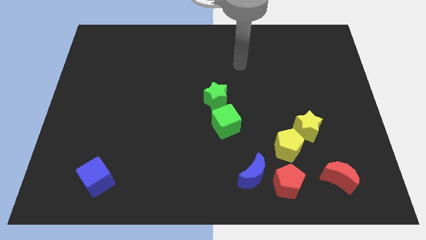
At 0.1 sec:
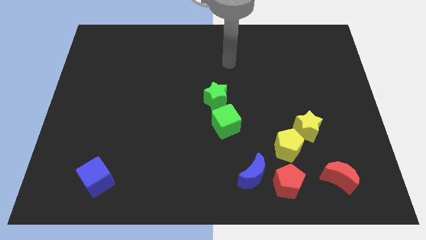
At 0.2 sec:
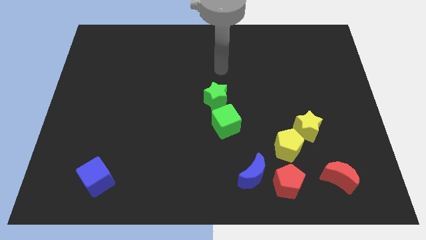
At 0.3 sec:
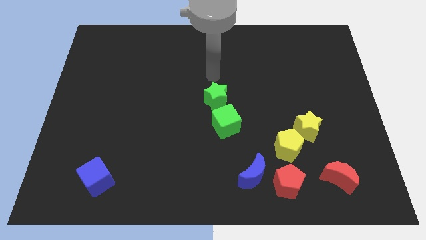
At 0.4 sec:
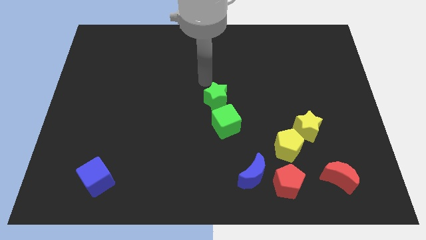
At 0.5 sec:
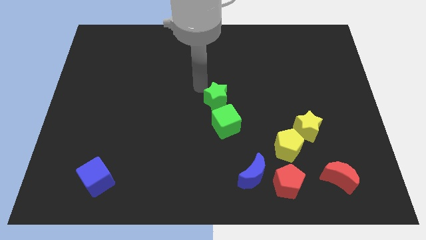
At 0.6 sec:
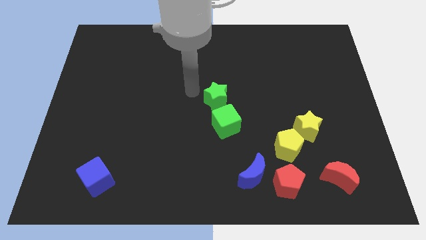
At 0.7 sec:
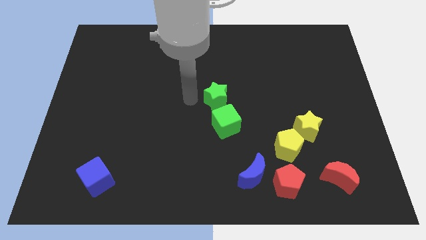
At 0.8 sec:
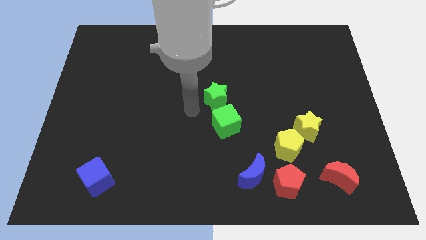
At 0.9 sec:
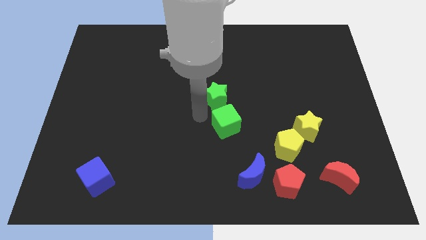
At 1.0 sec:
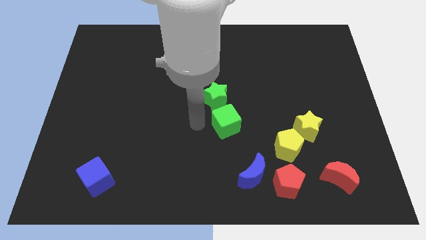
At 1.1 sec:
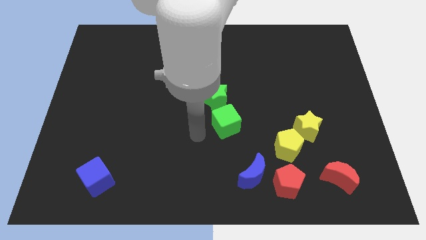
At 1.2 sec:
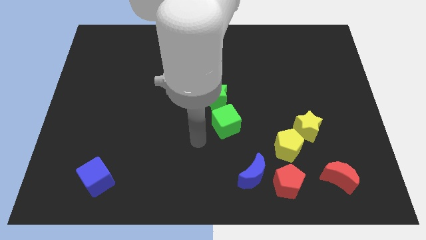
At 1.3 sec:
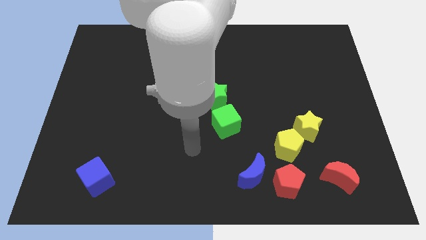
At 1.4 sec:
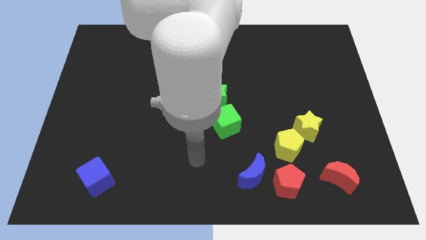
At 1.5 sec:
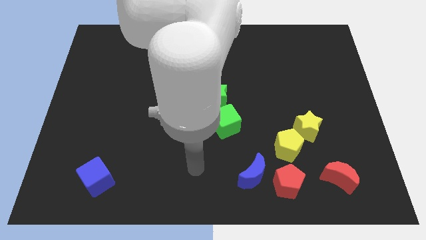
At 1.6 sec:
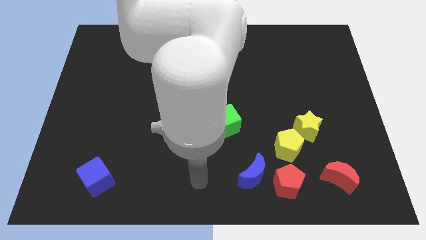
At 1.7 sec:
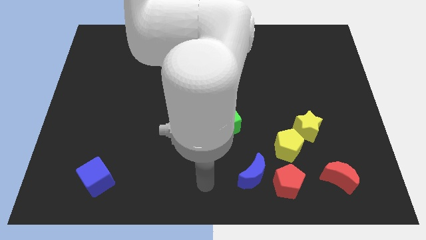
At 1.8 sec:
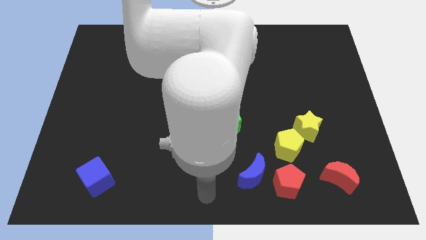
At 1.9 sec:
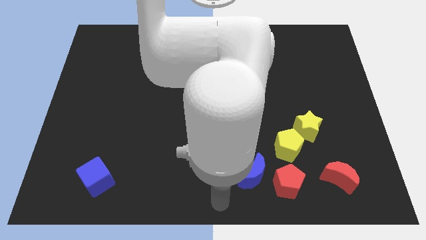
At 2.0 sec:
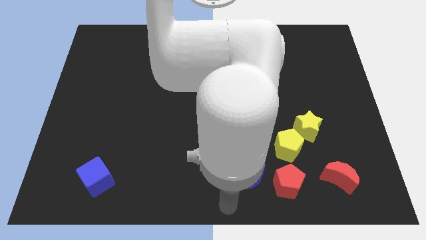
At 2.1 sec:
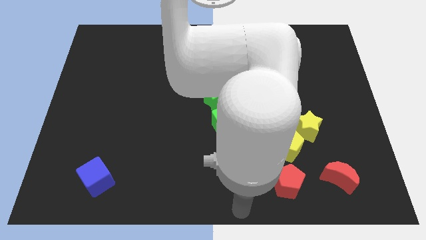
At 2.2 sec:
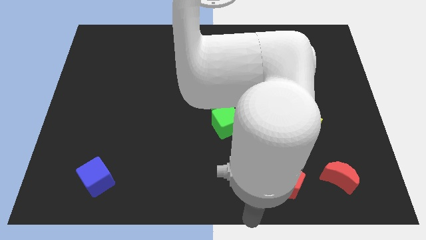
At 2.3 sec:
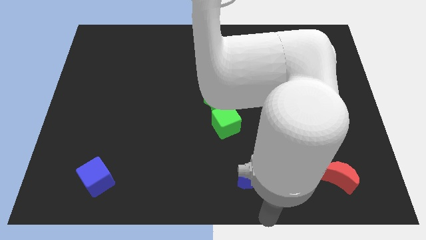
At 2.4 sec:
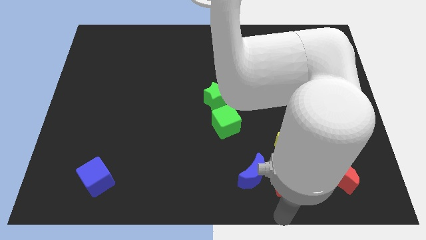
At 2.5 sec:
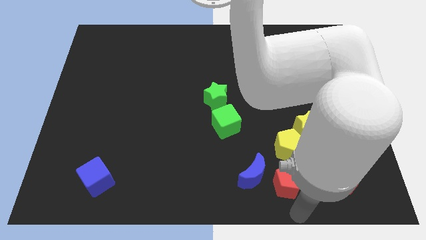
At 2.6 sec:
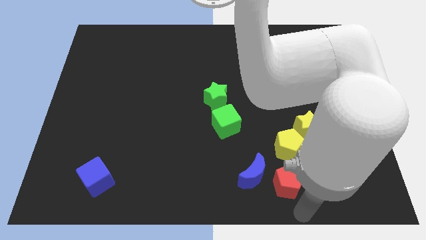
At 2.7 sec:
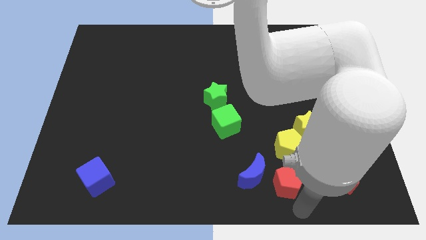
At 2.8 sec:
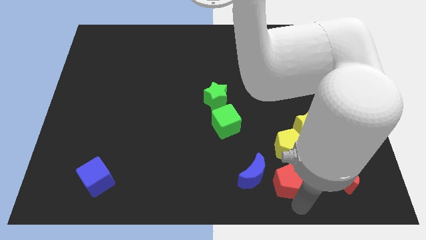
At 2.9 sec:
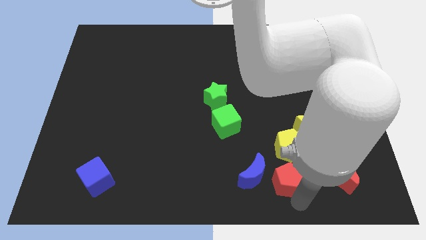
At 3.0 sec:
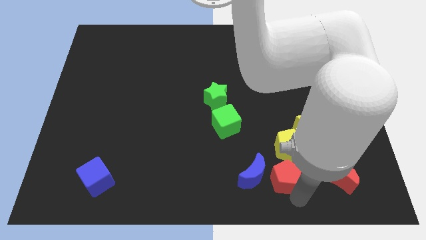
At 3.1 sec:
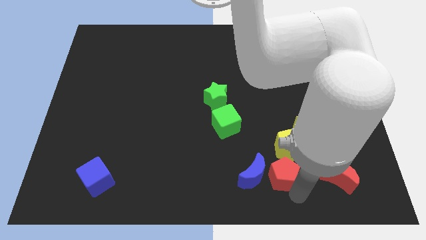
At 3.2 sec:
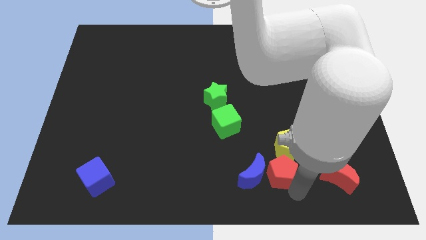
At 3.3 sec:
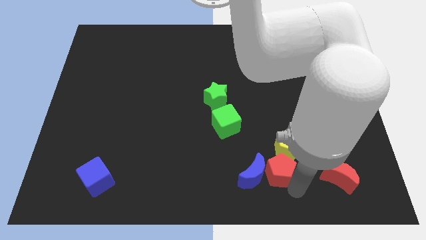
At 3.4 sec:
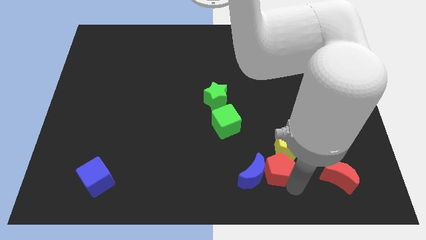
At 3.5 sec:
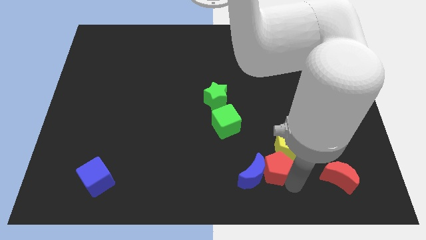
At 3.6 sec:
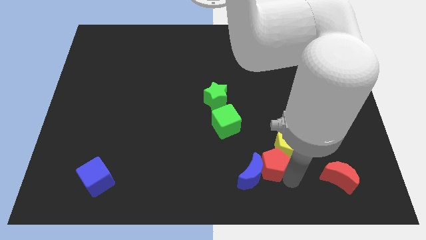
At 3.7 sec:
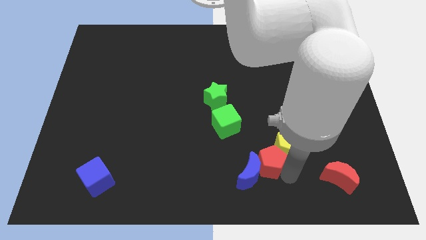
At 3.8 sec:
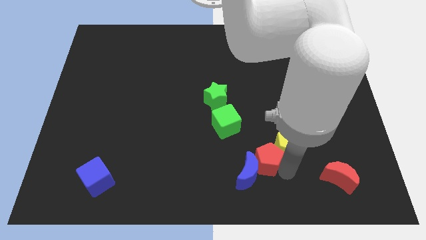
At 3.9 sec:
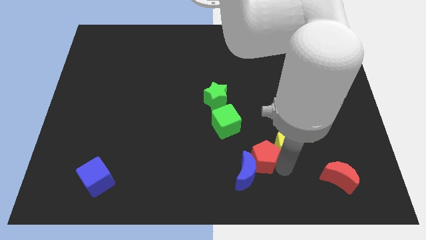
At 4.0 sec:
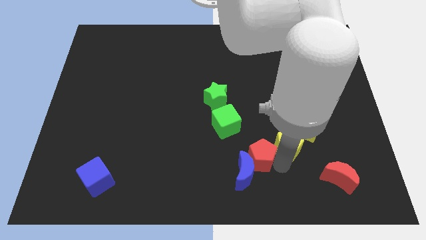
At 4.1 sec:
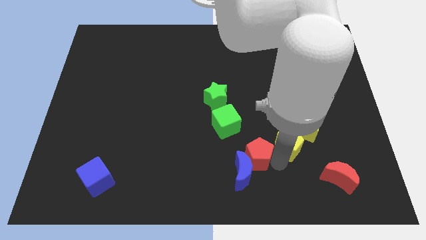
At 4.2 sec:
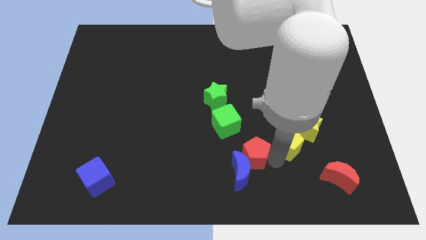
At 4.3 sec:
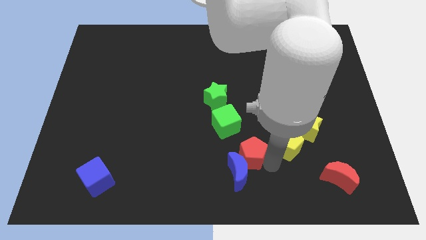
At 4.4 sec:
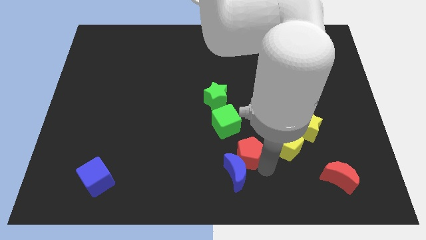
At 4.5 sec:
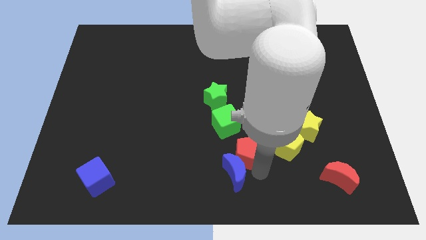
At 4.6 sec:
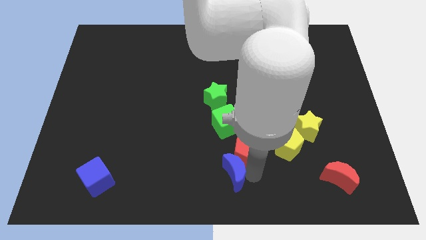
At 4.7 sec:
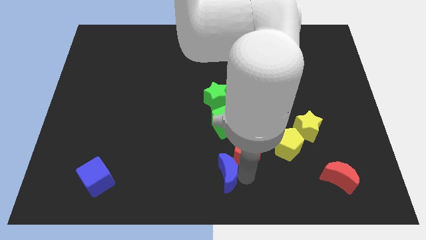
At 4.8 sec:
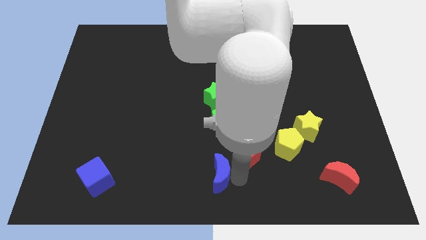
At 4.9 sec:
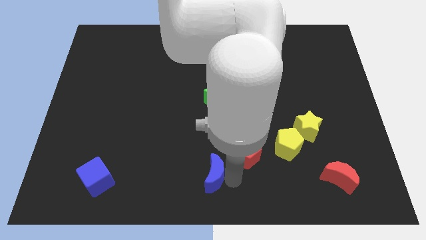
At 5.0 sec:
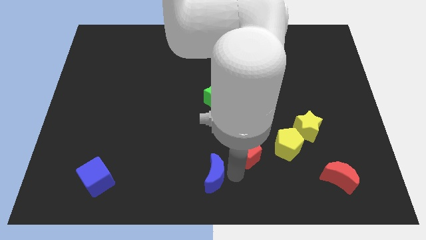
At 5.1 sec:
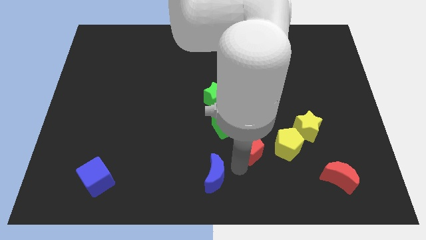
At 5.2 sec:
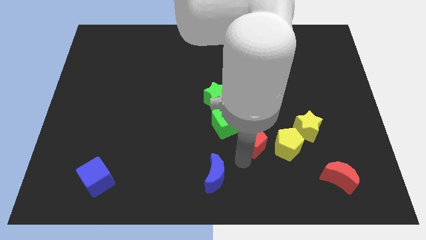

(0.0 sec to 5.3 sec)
slide the red pentagon left of the yellow star

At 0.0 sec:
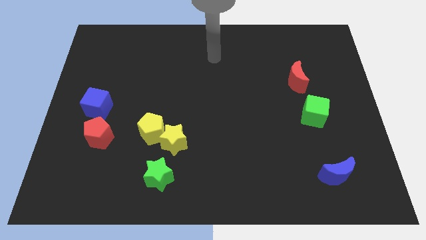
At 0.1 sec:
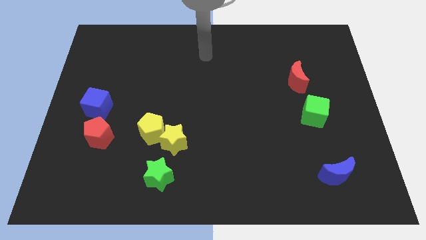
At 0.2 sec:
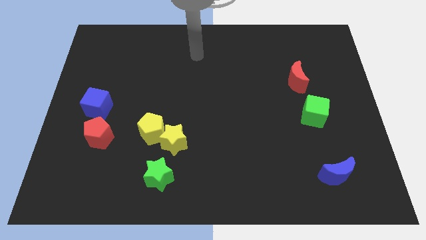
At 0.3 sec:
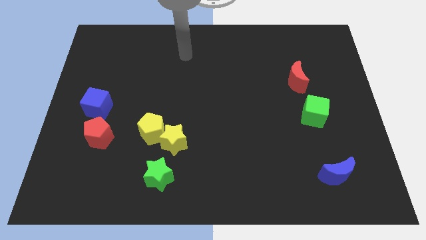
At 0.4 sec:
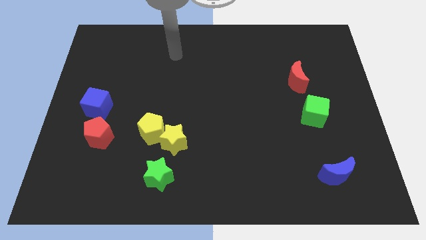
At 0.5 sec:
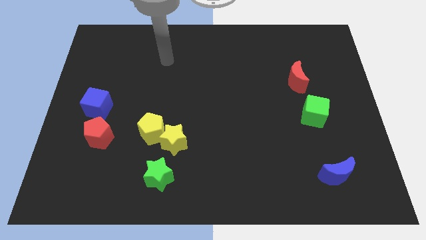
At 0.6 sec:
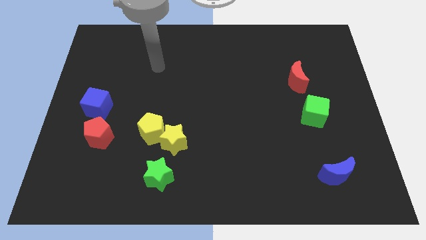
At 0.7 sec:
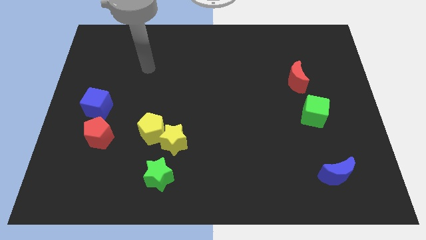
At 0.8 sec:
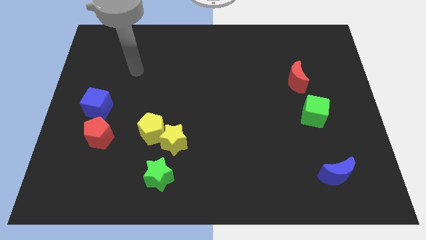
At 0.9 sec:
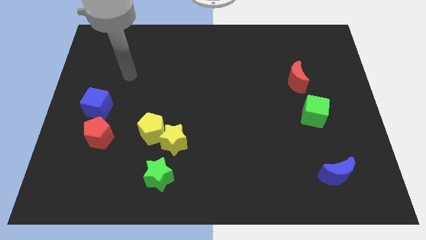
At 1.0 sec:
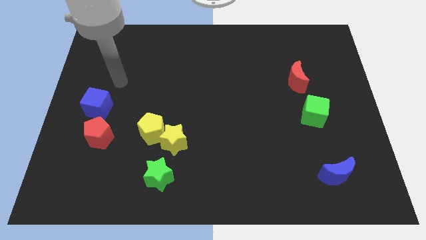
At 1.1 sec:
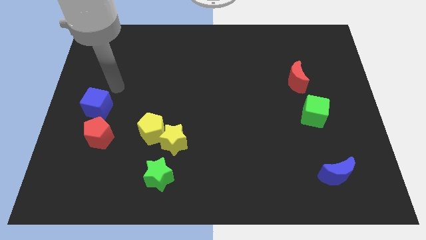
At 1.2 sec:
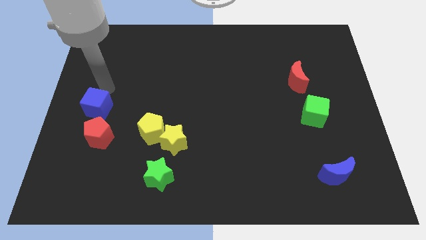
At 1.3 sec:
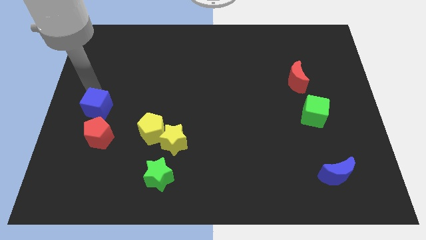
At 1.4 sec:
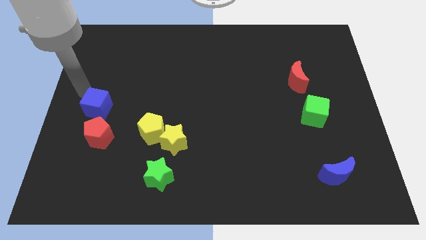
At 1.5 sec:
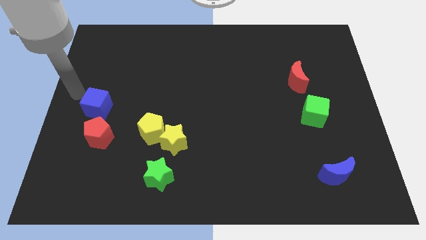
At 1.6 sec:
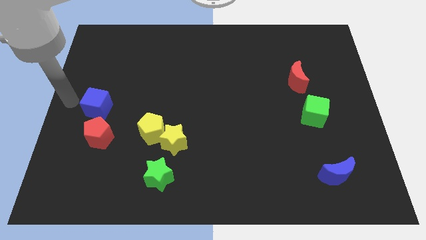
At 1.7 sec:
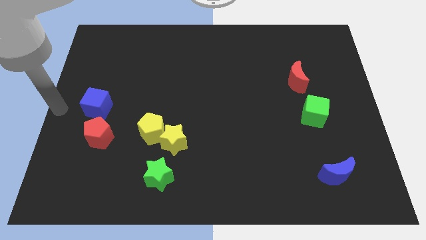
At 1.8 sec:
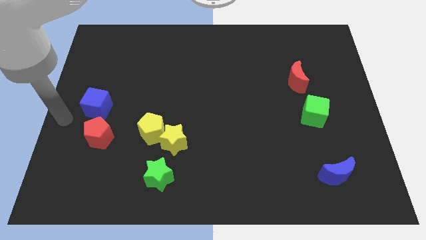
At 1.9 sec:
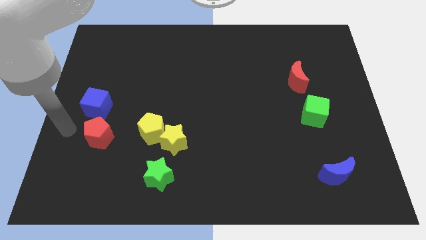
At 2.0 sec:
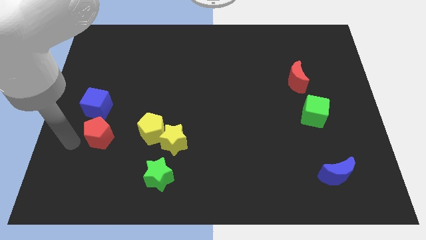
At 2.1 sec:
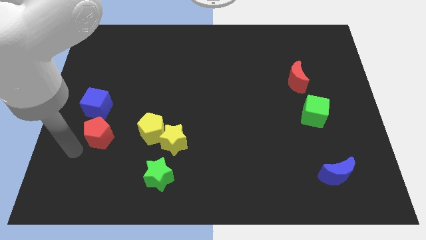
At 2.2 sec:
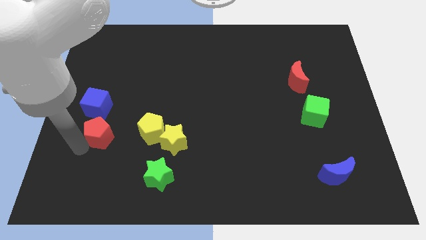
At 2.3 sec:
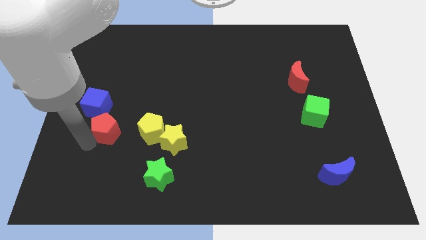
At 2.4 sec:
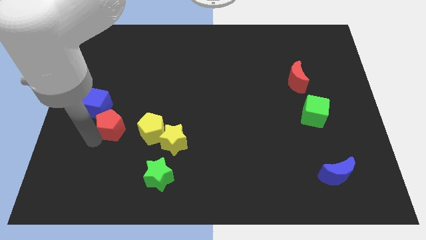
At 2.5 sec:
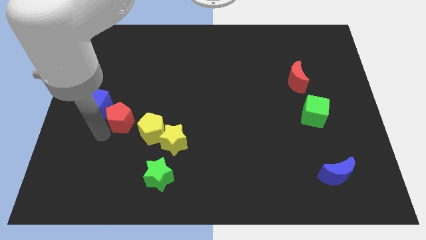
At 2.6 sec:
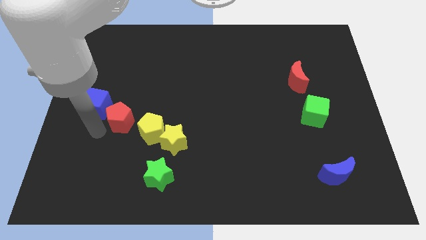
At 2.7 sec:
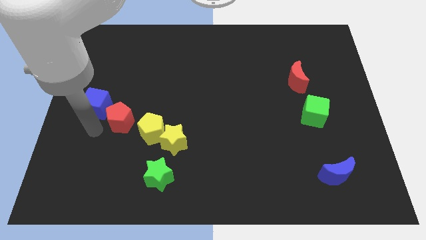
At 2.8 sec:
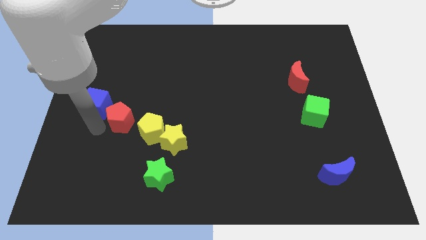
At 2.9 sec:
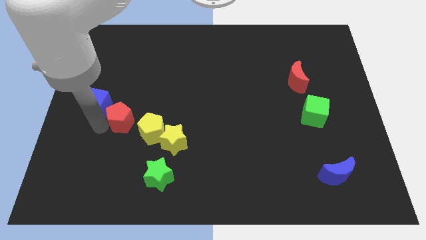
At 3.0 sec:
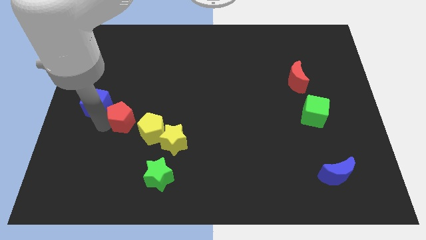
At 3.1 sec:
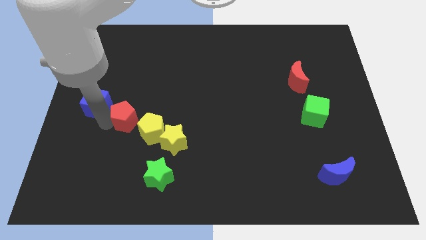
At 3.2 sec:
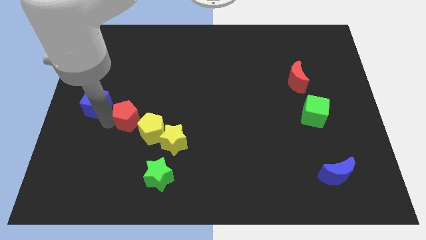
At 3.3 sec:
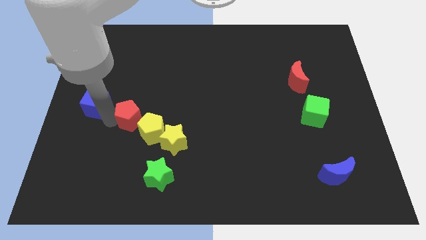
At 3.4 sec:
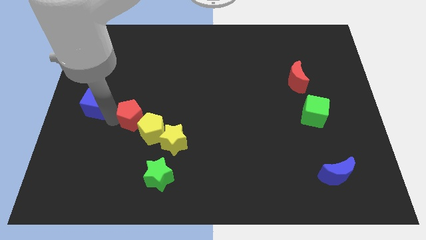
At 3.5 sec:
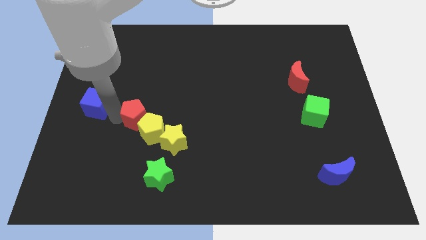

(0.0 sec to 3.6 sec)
push the red pentagon to the top side of the yellow pentagon
